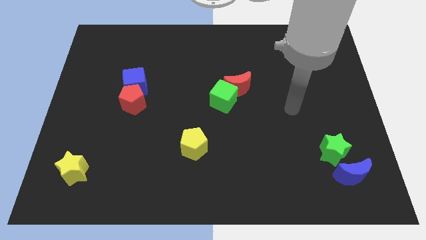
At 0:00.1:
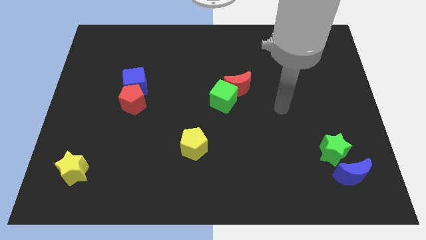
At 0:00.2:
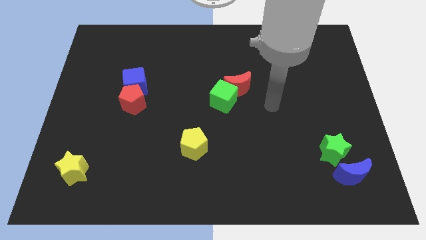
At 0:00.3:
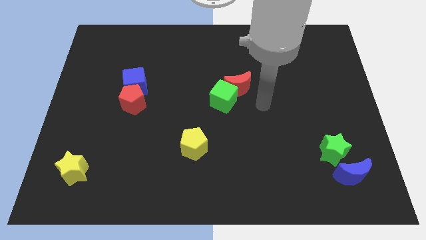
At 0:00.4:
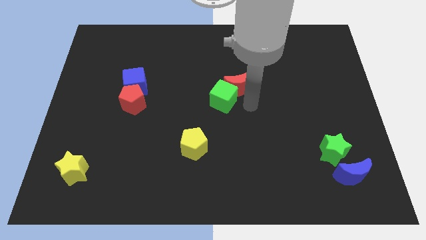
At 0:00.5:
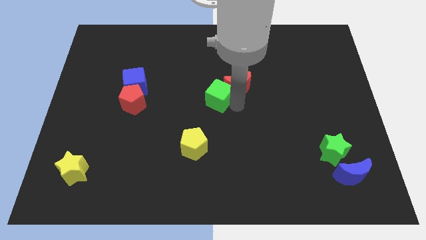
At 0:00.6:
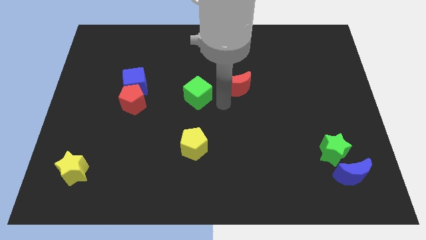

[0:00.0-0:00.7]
move the red moon away from the green cube

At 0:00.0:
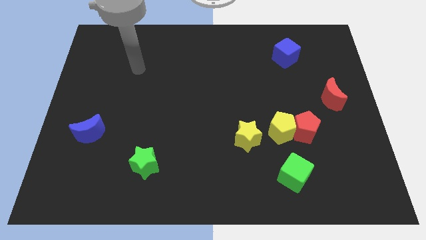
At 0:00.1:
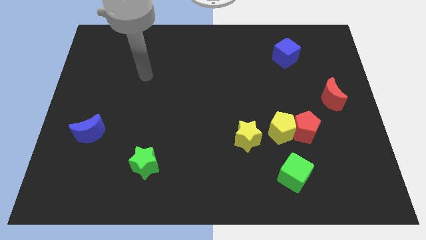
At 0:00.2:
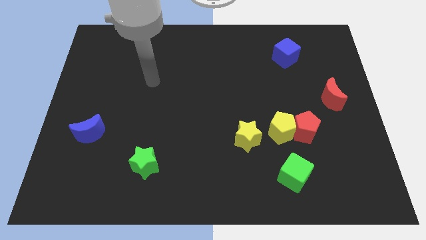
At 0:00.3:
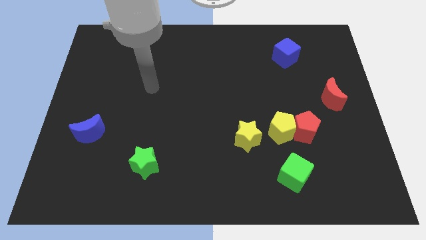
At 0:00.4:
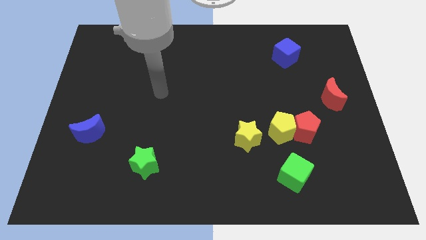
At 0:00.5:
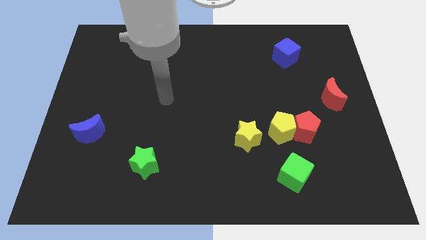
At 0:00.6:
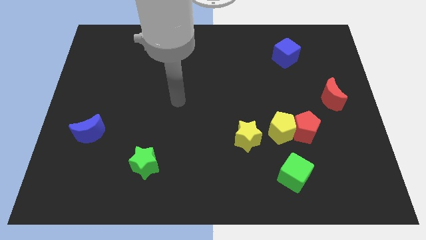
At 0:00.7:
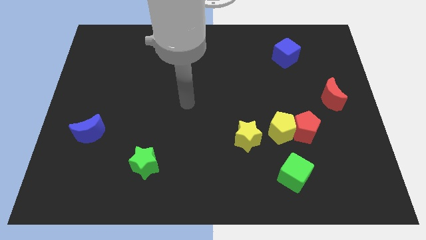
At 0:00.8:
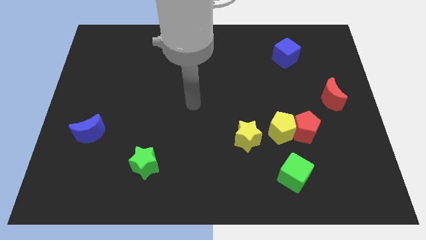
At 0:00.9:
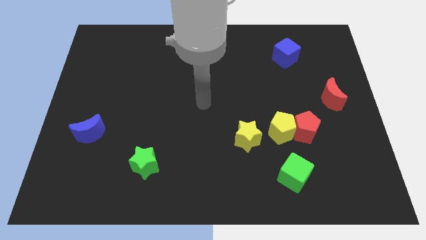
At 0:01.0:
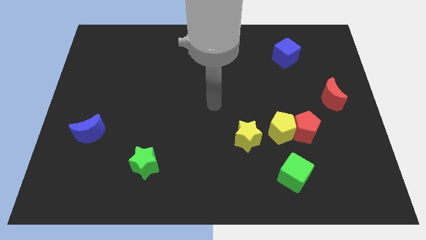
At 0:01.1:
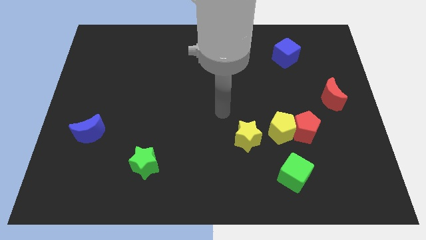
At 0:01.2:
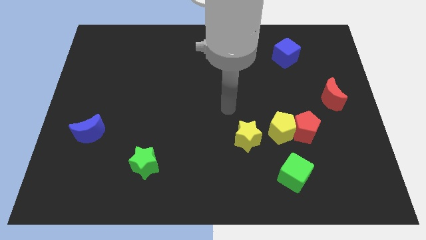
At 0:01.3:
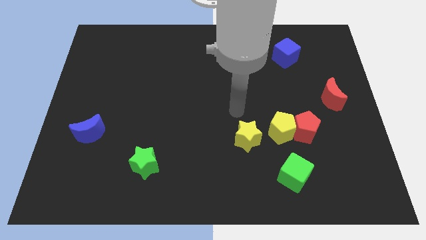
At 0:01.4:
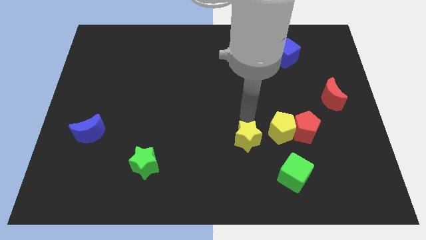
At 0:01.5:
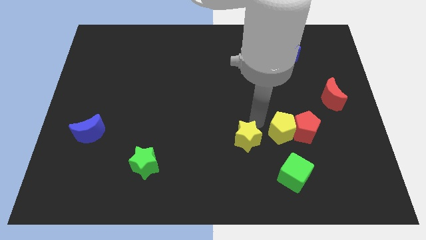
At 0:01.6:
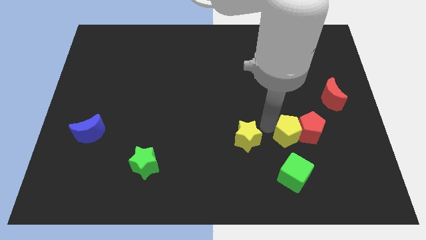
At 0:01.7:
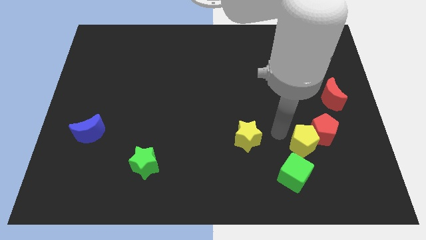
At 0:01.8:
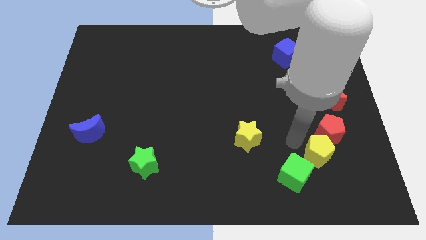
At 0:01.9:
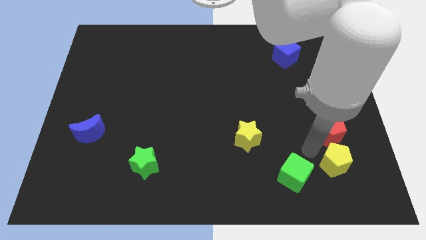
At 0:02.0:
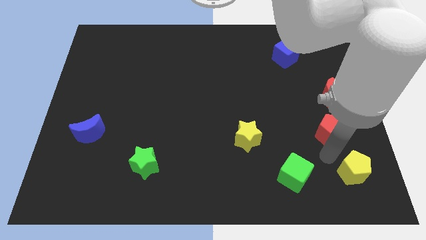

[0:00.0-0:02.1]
pull the red pentagon apart from the yellow pentagon

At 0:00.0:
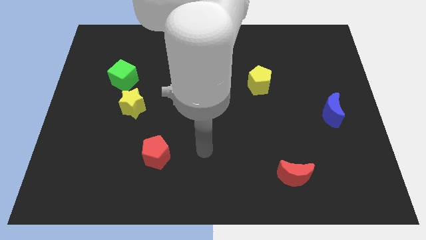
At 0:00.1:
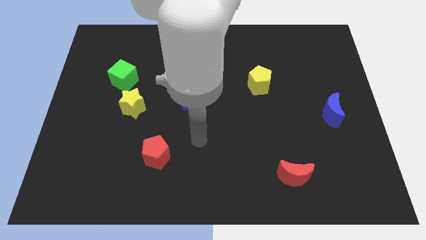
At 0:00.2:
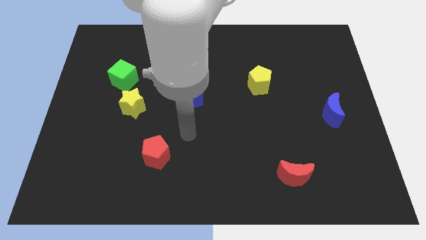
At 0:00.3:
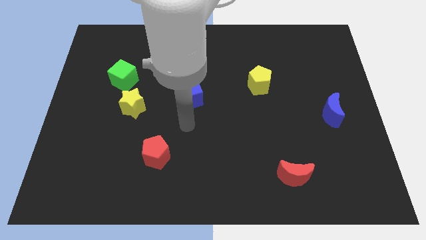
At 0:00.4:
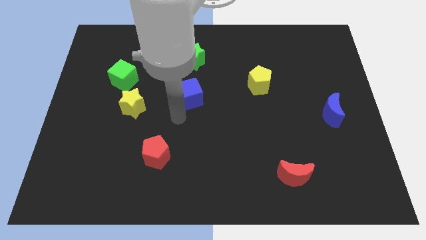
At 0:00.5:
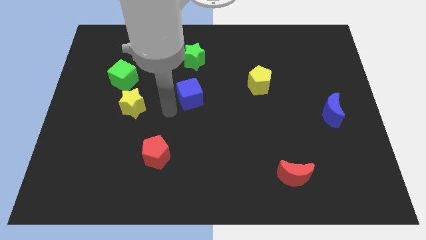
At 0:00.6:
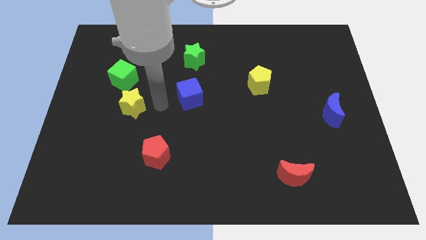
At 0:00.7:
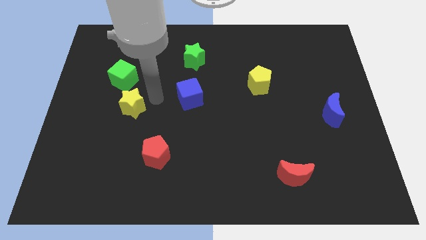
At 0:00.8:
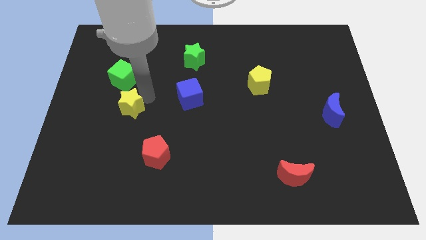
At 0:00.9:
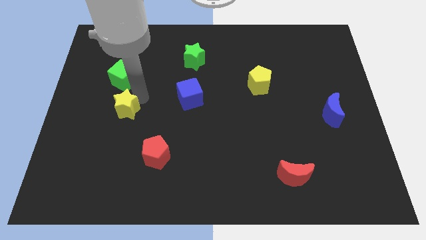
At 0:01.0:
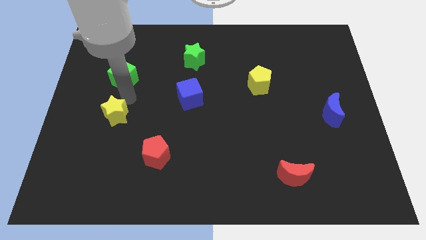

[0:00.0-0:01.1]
pull the green cube apart from the yellow star

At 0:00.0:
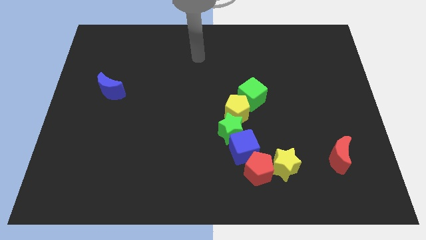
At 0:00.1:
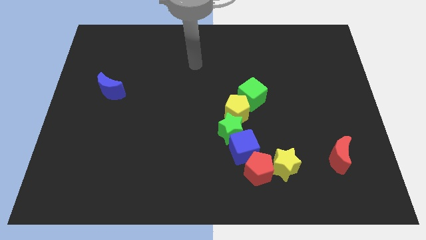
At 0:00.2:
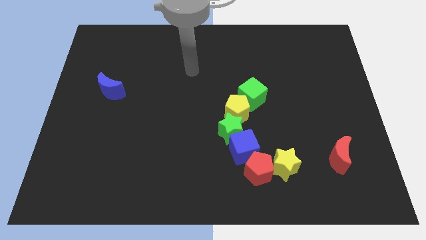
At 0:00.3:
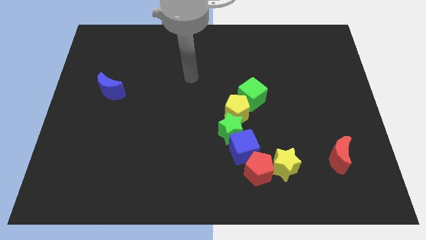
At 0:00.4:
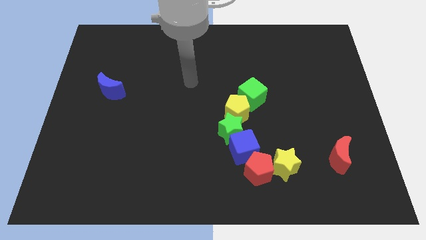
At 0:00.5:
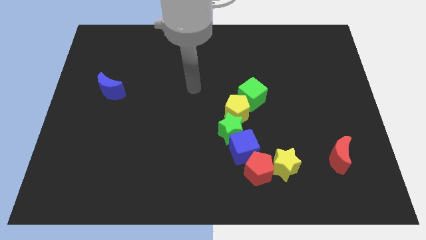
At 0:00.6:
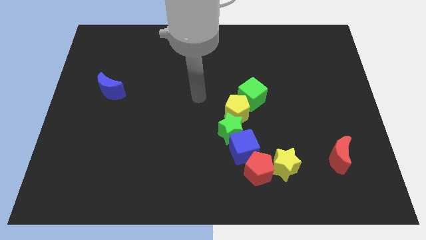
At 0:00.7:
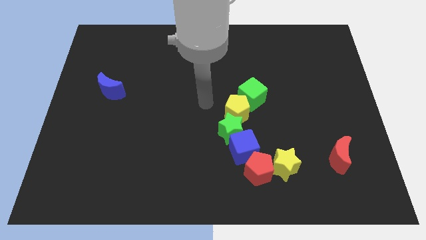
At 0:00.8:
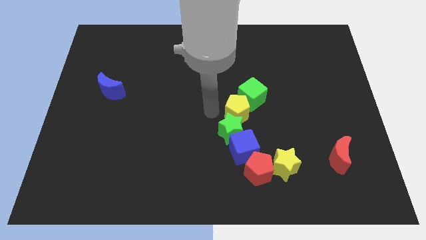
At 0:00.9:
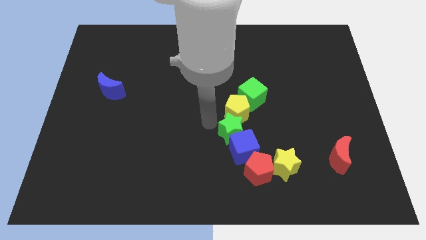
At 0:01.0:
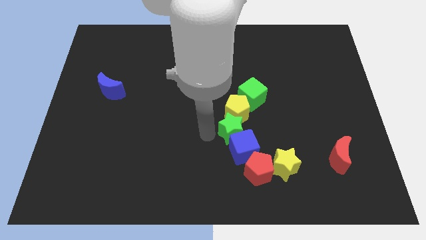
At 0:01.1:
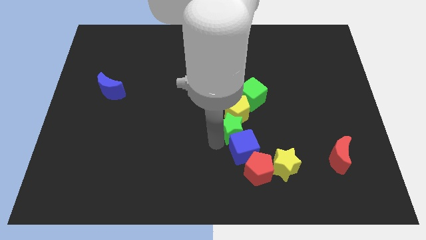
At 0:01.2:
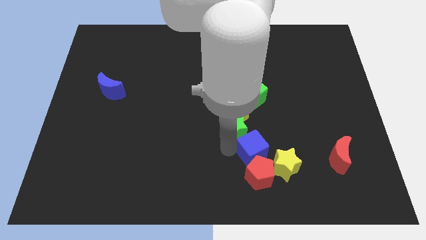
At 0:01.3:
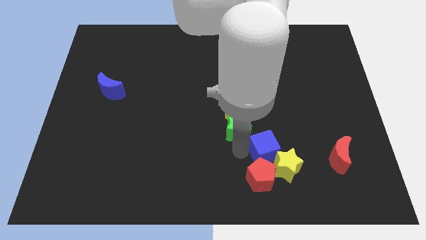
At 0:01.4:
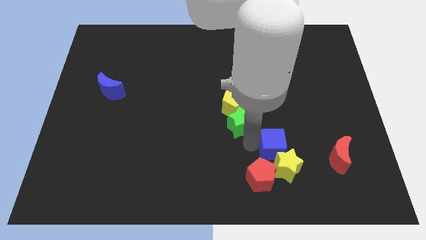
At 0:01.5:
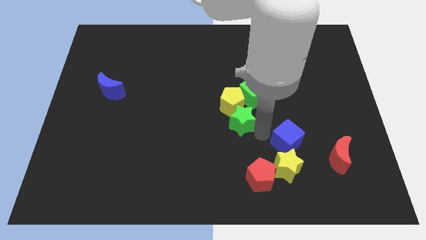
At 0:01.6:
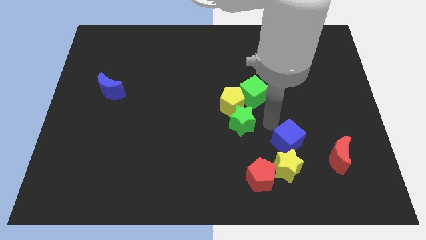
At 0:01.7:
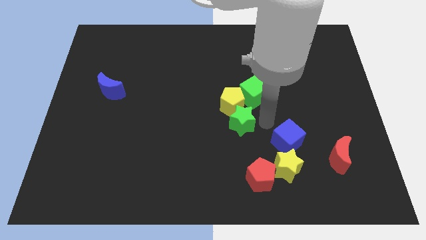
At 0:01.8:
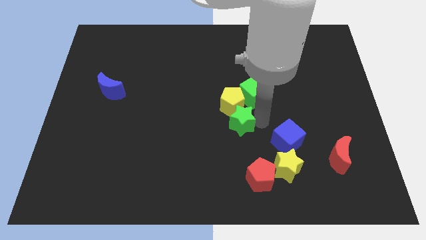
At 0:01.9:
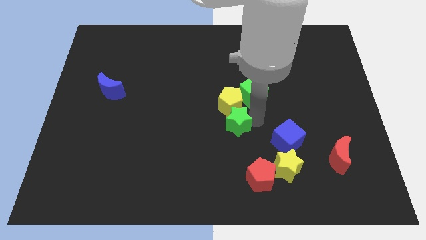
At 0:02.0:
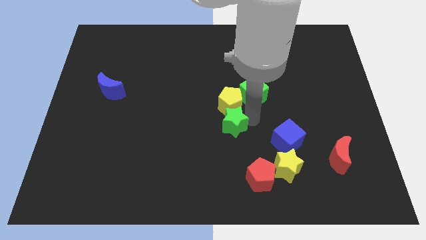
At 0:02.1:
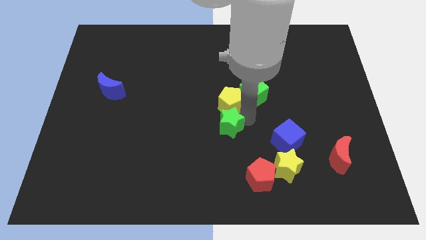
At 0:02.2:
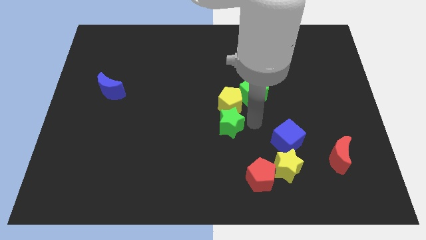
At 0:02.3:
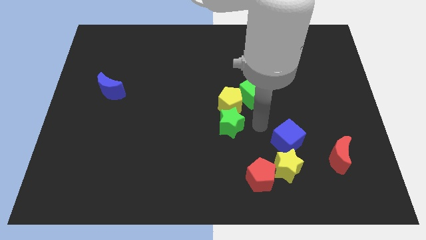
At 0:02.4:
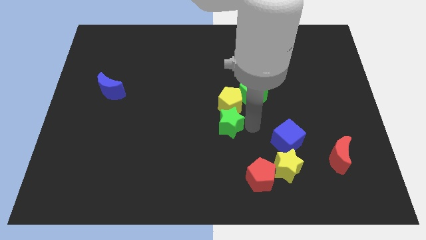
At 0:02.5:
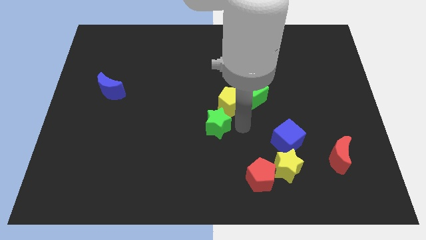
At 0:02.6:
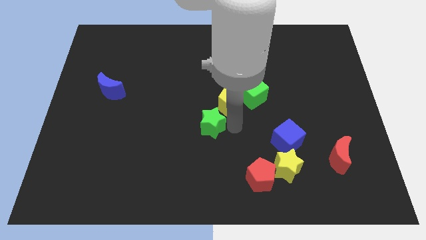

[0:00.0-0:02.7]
move the green star away from the blue cube and yellow pentagon

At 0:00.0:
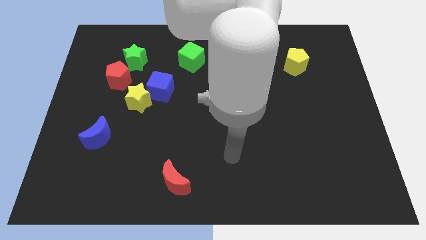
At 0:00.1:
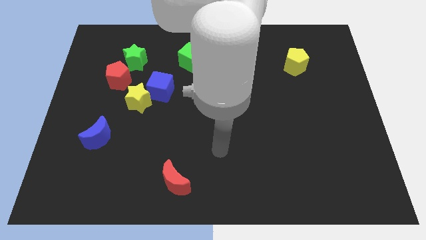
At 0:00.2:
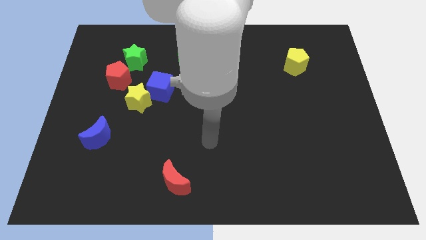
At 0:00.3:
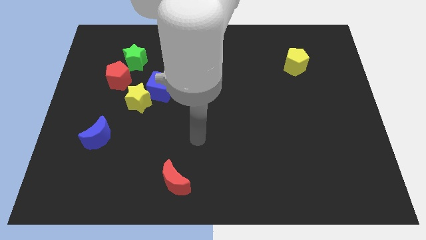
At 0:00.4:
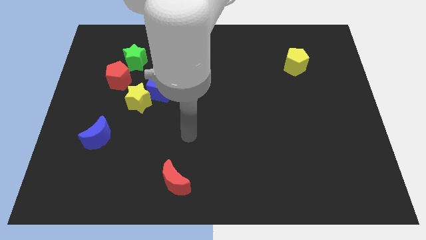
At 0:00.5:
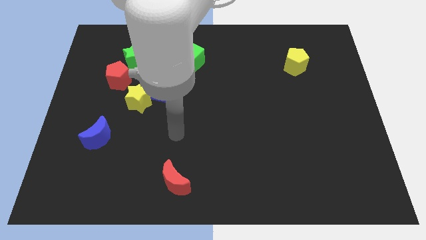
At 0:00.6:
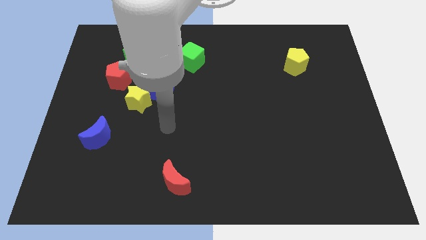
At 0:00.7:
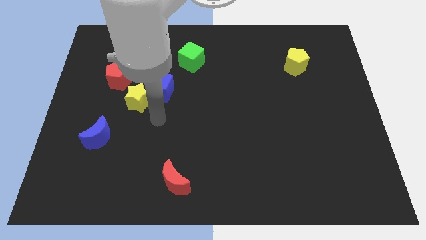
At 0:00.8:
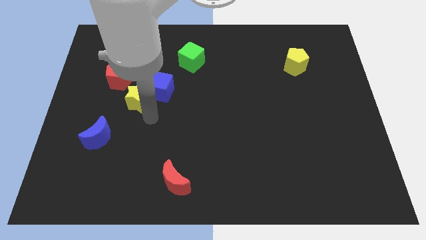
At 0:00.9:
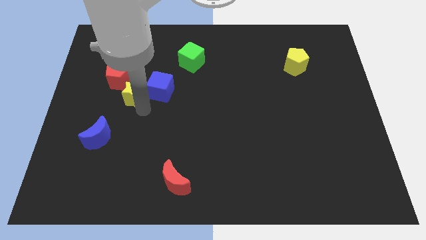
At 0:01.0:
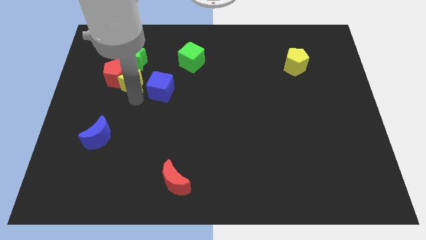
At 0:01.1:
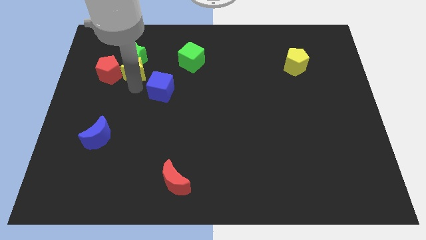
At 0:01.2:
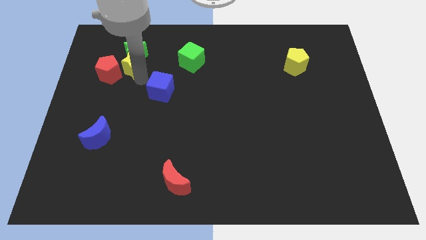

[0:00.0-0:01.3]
pull the blue cube apart from the yellow star

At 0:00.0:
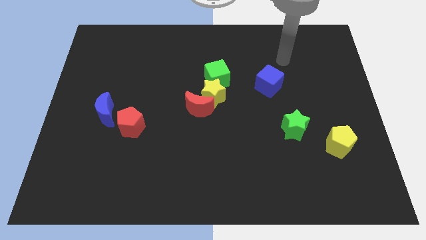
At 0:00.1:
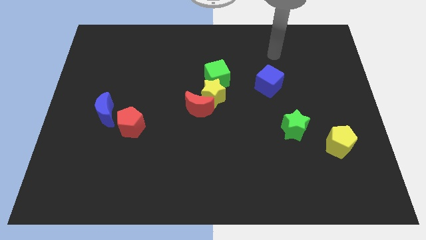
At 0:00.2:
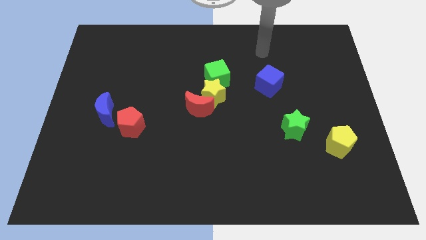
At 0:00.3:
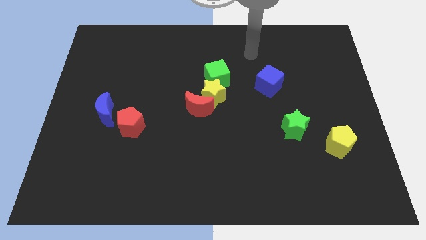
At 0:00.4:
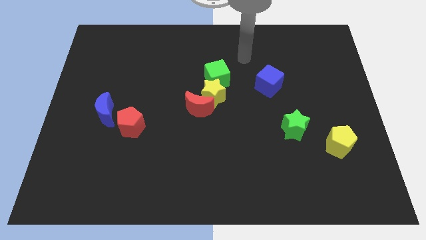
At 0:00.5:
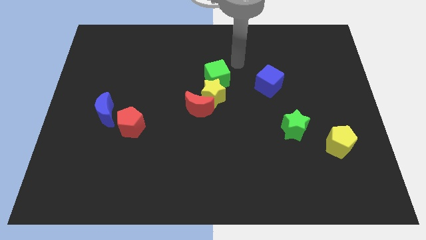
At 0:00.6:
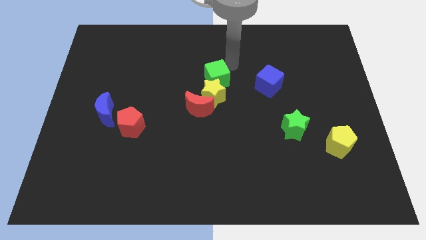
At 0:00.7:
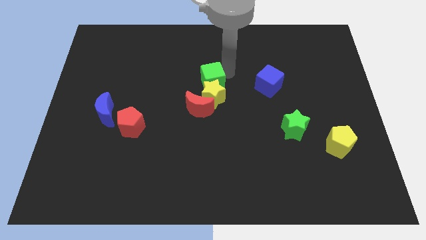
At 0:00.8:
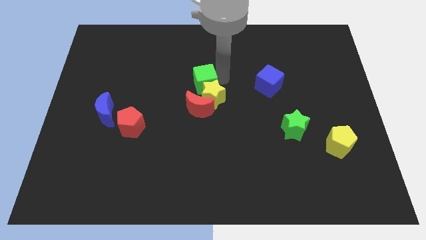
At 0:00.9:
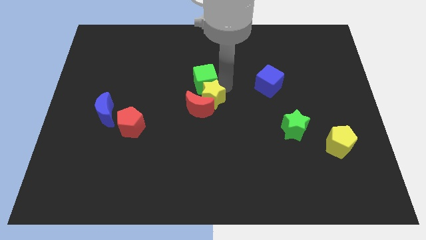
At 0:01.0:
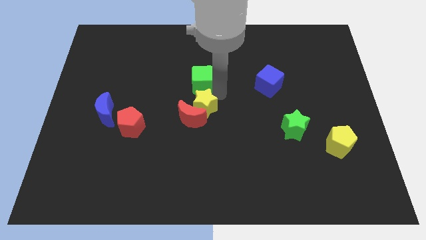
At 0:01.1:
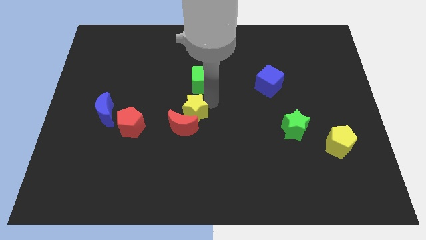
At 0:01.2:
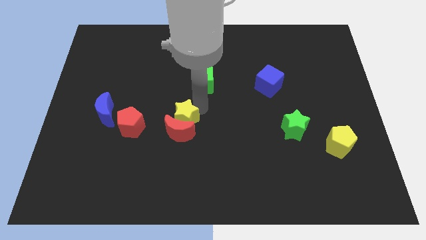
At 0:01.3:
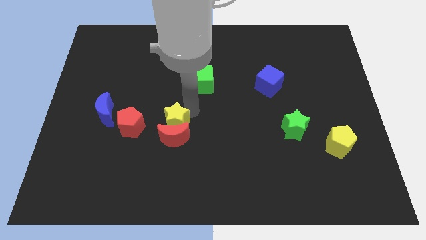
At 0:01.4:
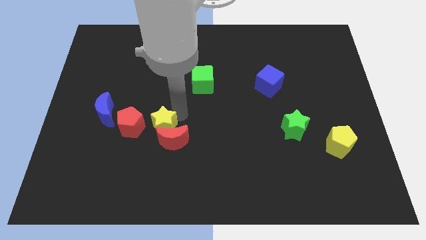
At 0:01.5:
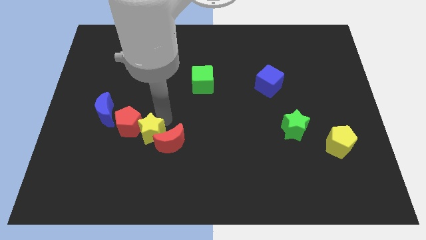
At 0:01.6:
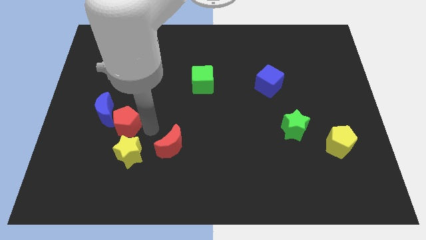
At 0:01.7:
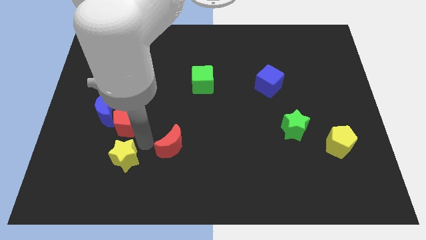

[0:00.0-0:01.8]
pull the red moon apart from the yellow star
